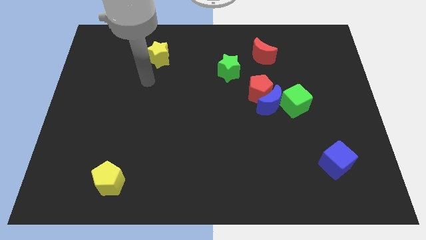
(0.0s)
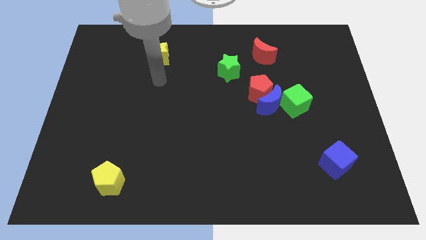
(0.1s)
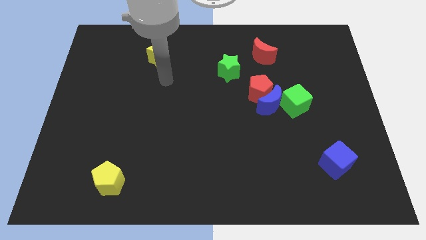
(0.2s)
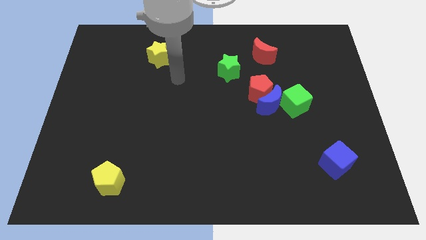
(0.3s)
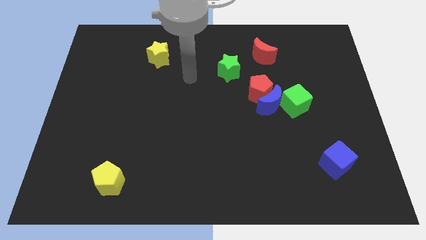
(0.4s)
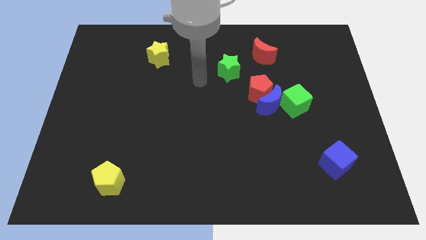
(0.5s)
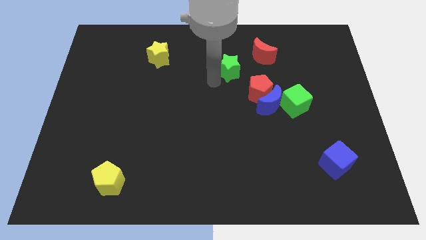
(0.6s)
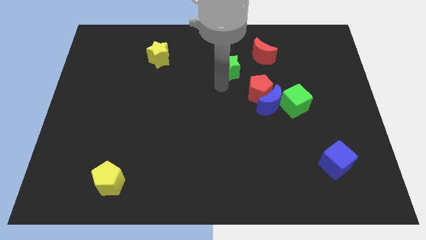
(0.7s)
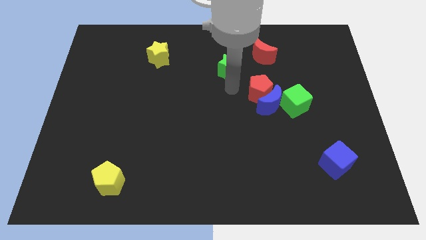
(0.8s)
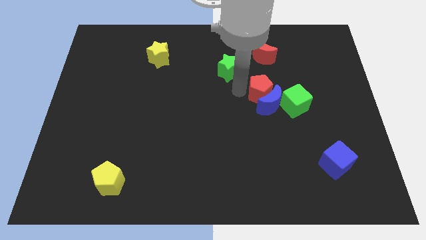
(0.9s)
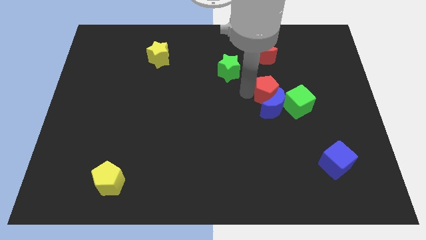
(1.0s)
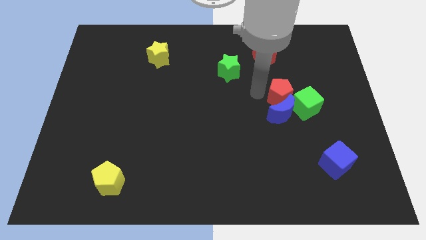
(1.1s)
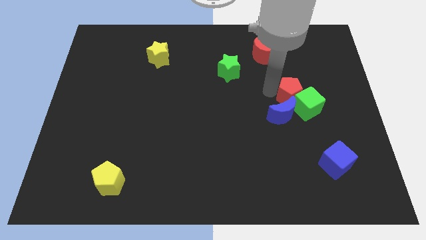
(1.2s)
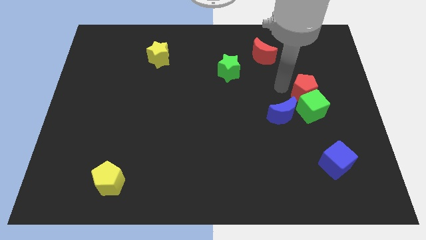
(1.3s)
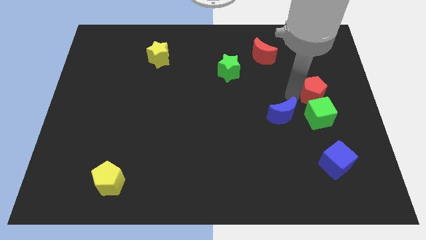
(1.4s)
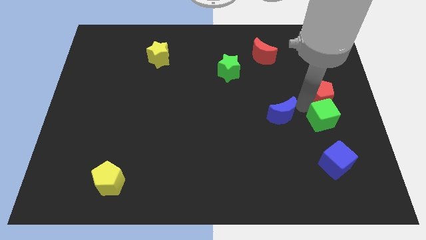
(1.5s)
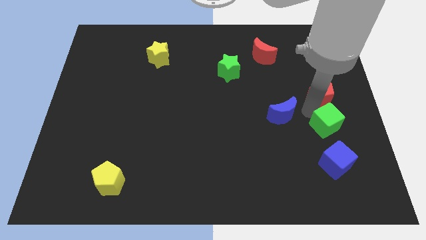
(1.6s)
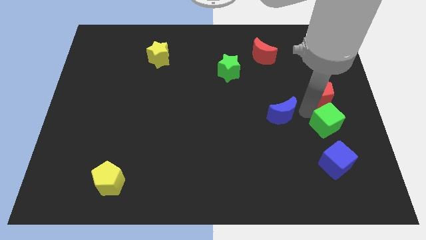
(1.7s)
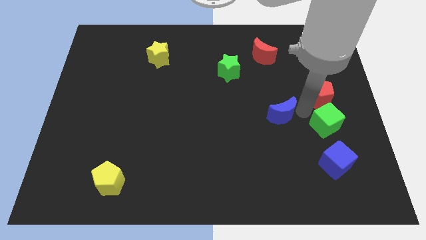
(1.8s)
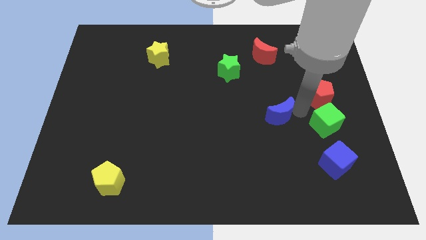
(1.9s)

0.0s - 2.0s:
pull the blue moon apart from the red pentagon and green cube

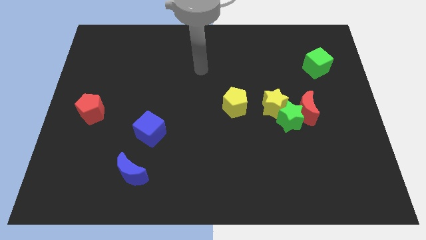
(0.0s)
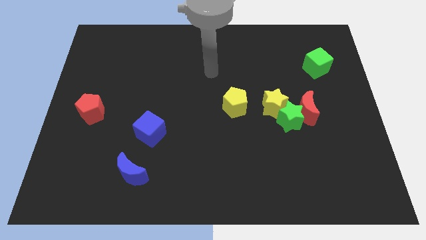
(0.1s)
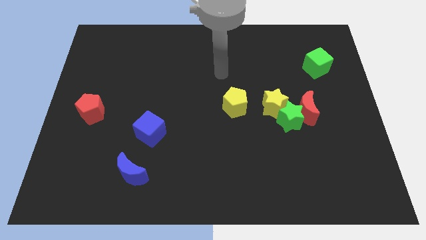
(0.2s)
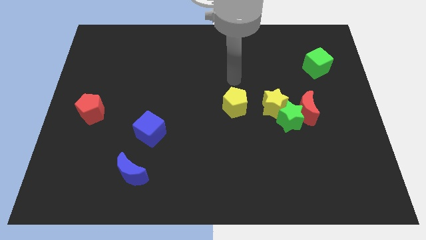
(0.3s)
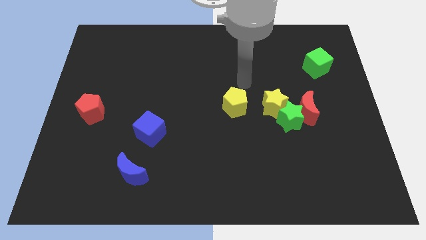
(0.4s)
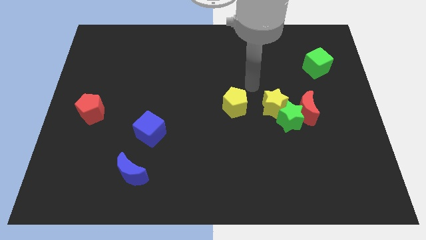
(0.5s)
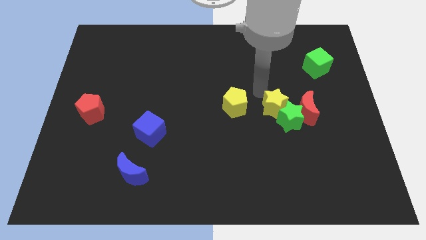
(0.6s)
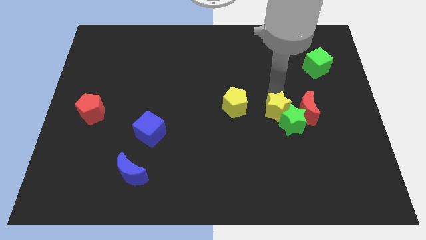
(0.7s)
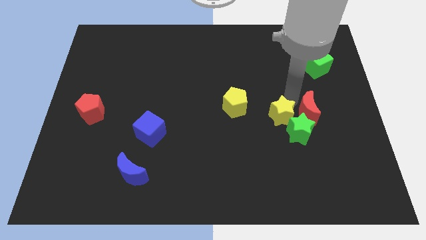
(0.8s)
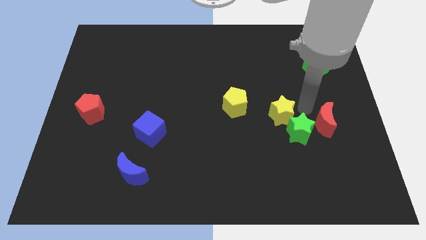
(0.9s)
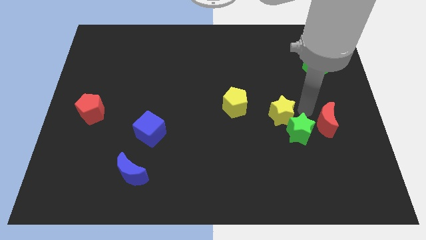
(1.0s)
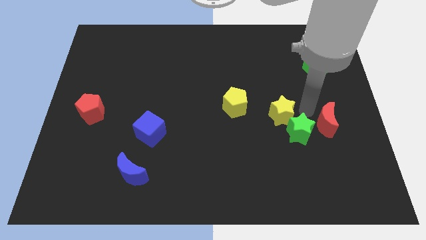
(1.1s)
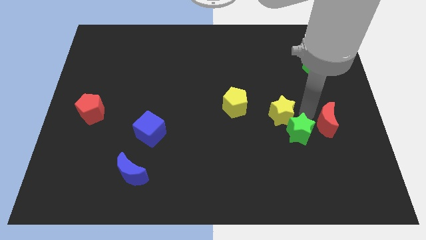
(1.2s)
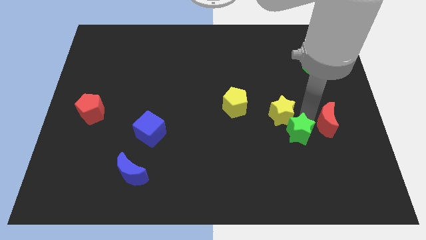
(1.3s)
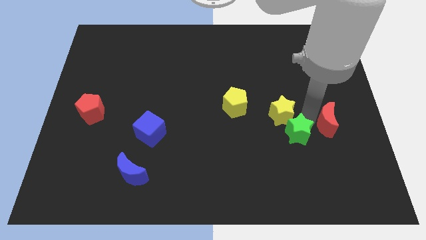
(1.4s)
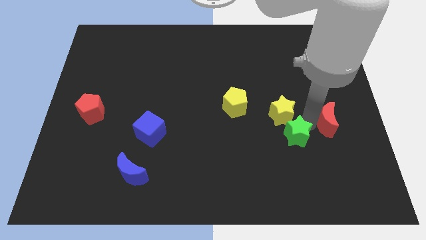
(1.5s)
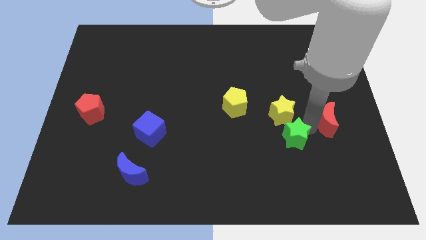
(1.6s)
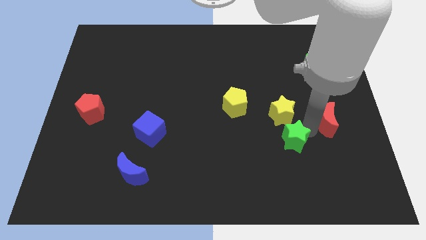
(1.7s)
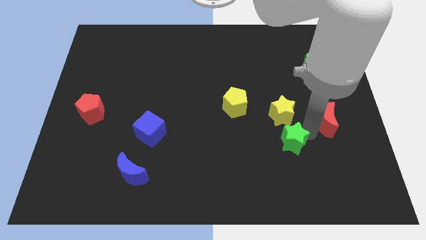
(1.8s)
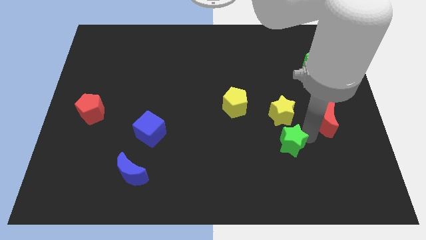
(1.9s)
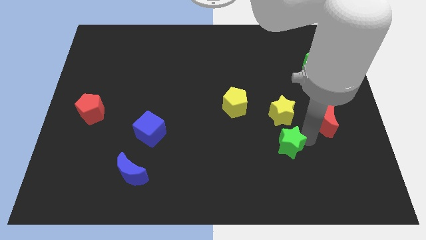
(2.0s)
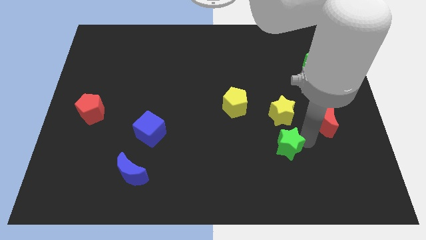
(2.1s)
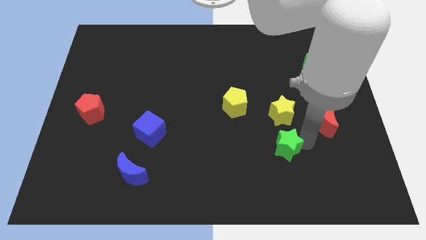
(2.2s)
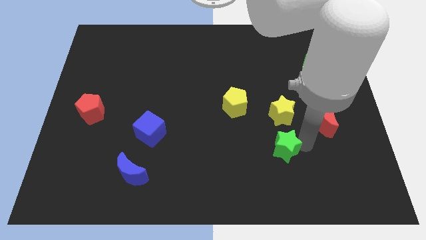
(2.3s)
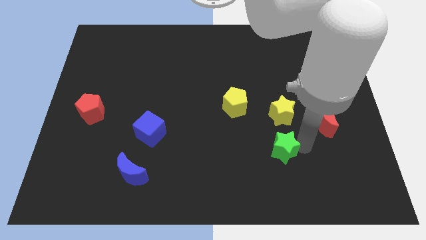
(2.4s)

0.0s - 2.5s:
separate the green star from the red moon and yellow star

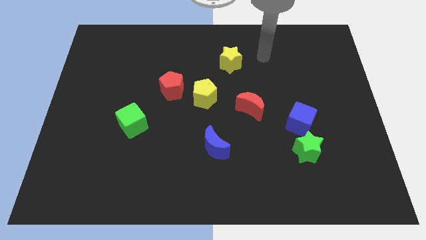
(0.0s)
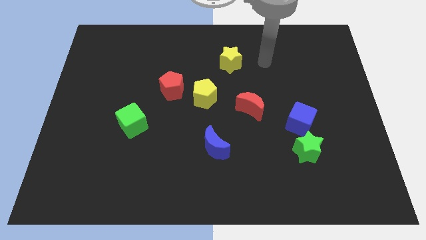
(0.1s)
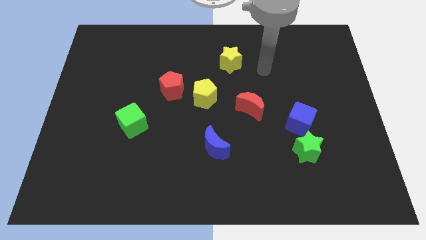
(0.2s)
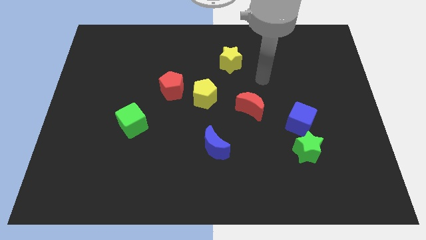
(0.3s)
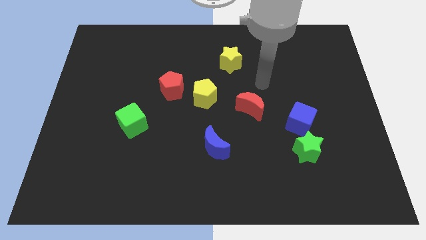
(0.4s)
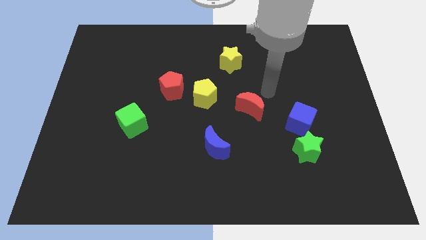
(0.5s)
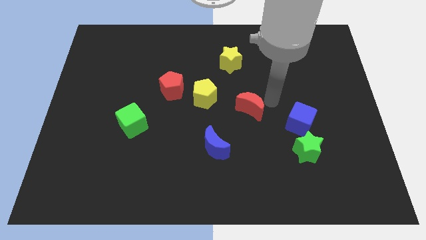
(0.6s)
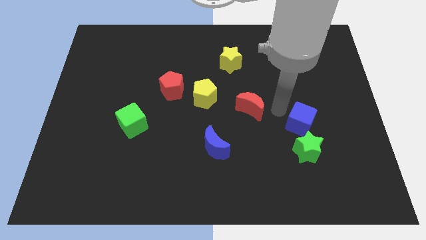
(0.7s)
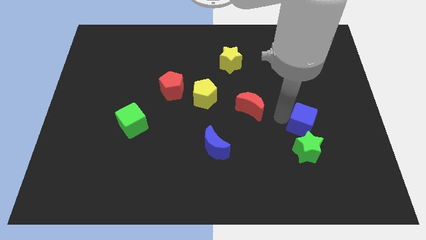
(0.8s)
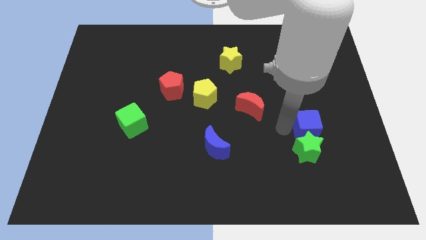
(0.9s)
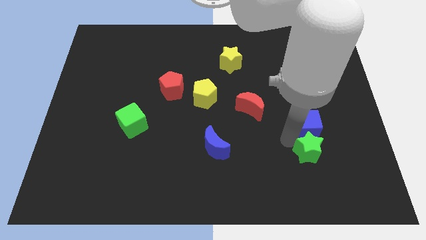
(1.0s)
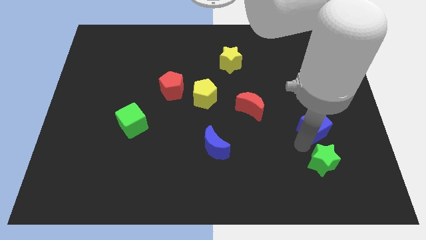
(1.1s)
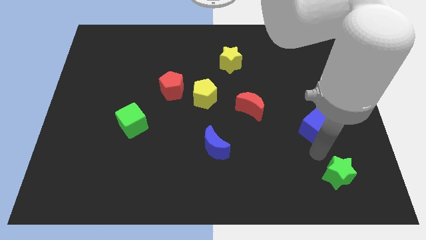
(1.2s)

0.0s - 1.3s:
separate the blue cube from the green star

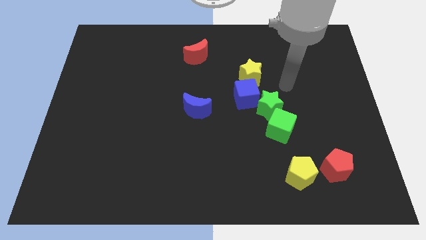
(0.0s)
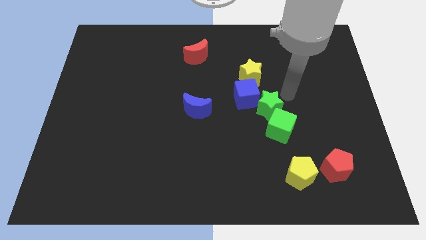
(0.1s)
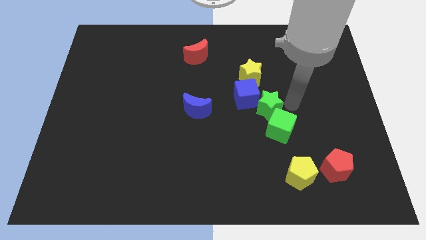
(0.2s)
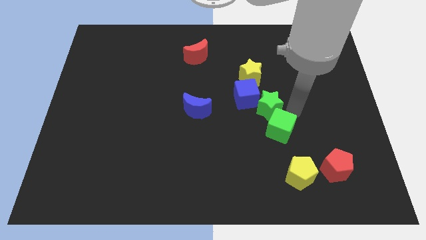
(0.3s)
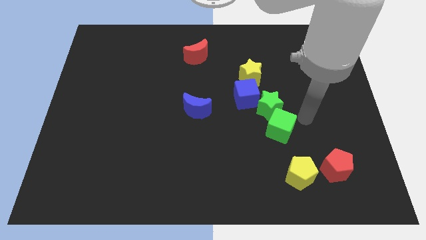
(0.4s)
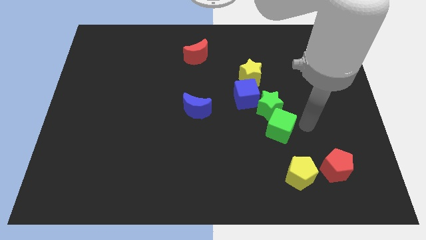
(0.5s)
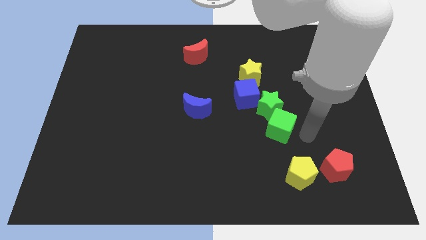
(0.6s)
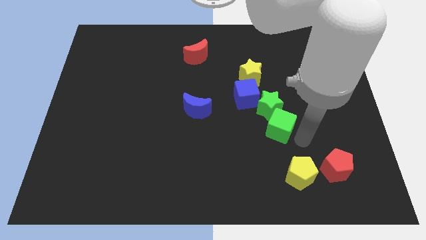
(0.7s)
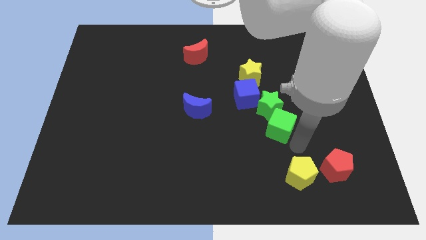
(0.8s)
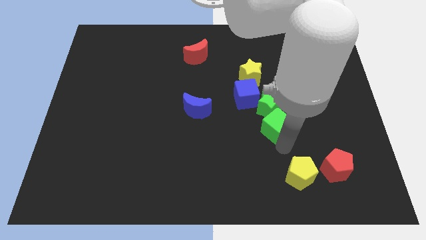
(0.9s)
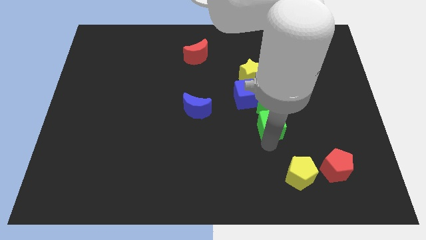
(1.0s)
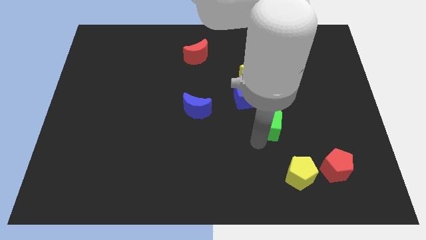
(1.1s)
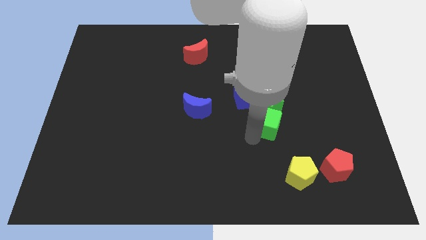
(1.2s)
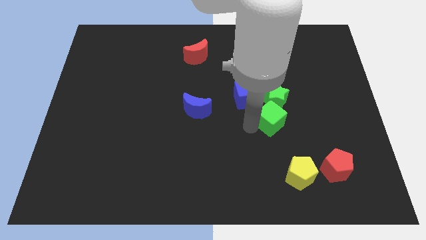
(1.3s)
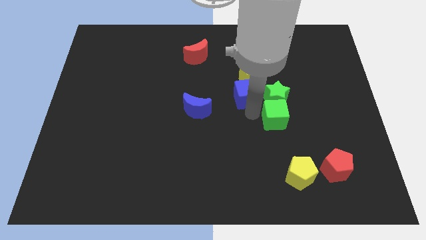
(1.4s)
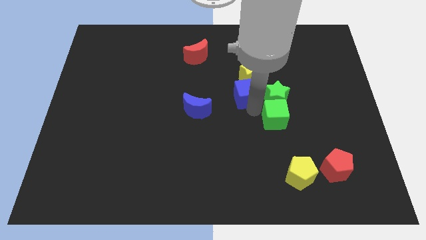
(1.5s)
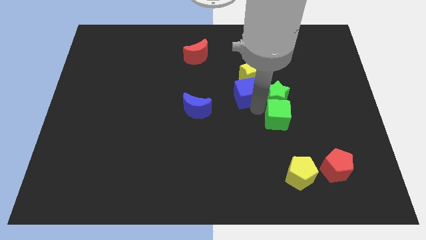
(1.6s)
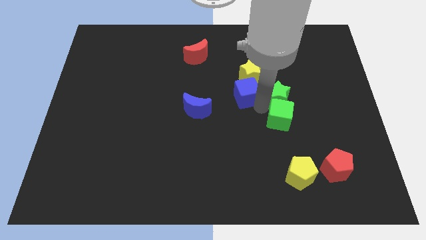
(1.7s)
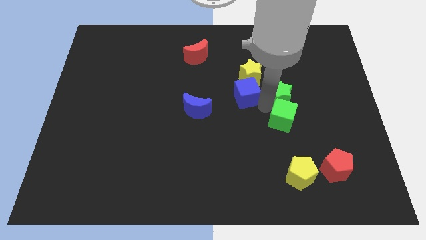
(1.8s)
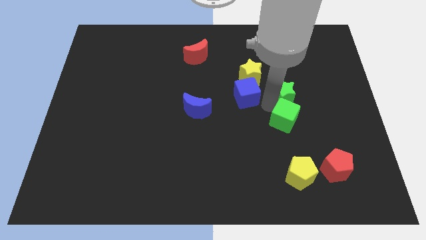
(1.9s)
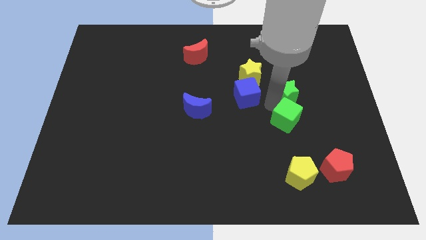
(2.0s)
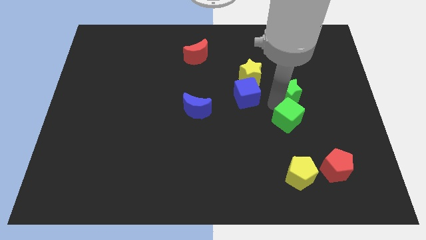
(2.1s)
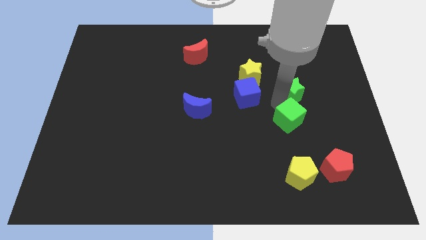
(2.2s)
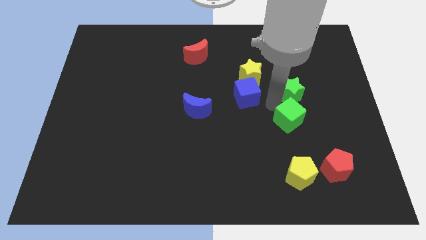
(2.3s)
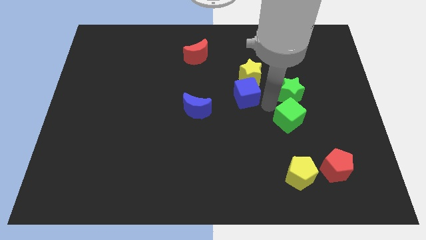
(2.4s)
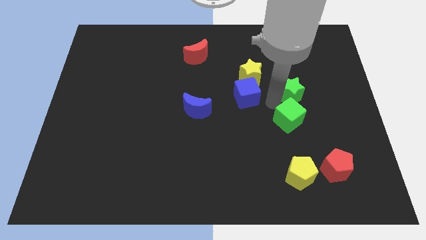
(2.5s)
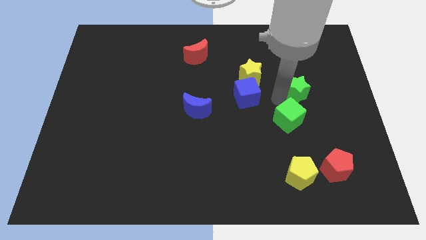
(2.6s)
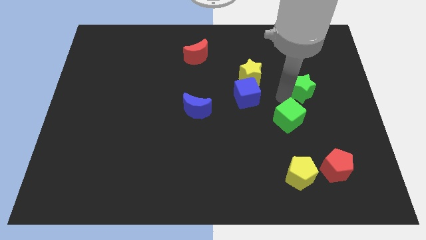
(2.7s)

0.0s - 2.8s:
separate the green star from the blue cube and green cube

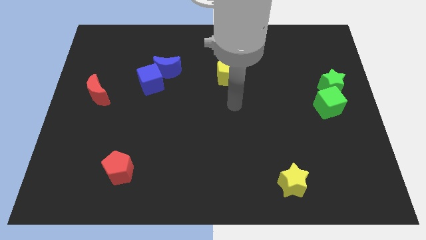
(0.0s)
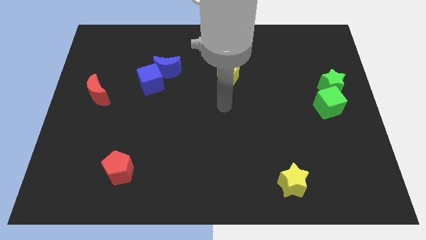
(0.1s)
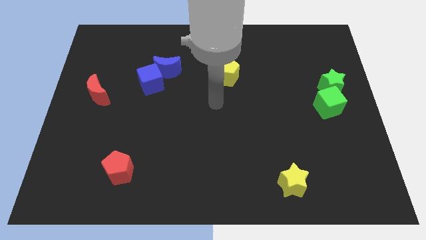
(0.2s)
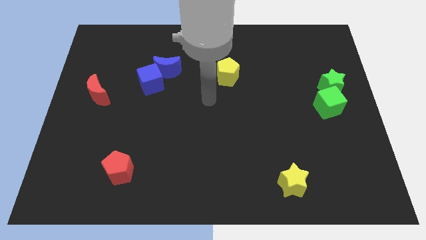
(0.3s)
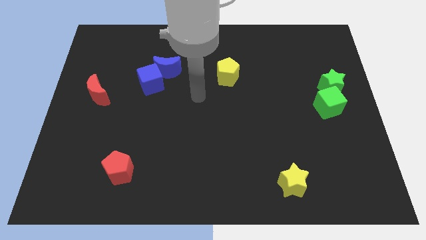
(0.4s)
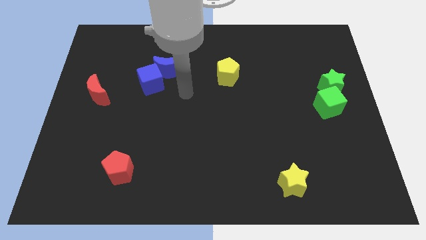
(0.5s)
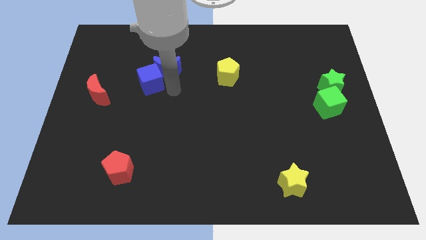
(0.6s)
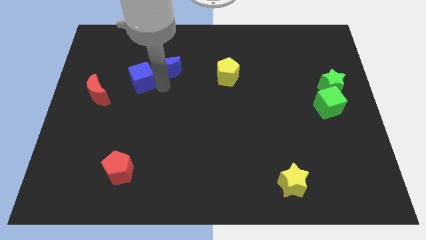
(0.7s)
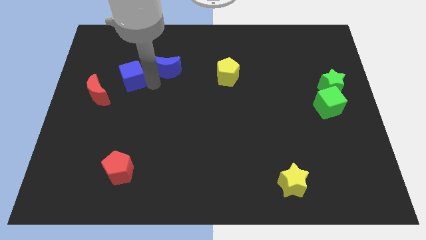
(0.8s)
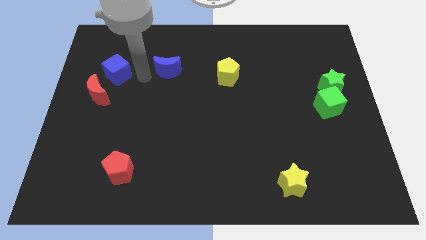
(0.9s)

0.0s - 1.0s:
move the blue moon away from the blue cube
